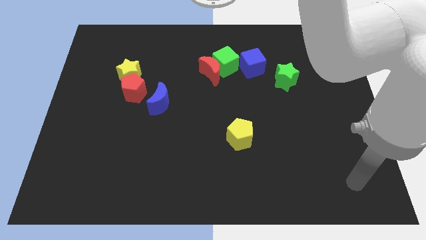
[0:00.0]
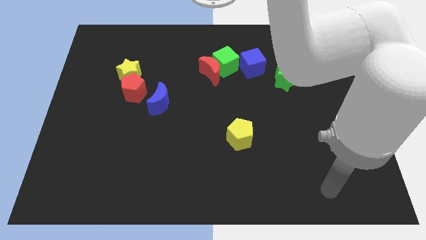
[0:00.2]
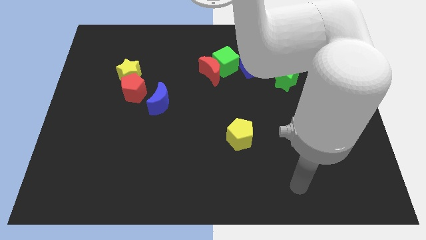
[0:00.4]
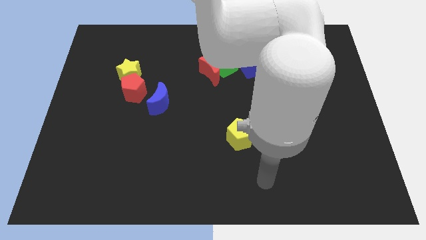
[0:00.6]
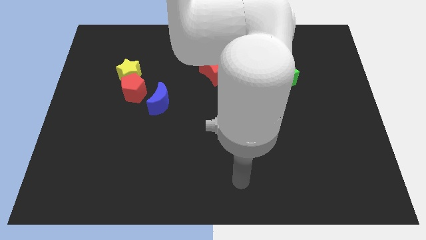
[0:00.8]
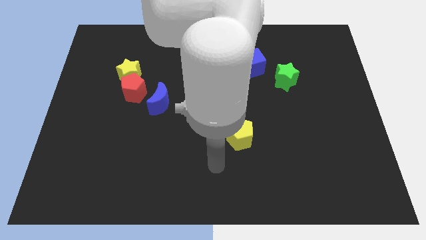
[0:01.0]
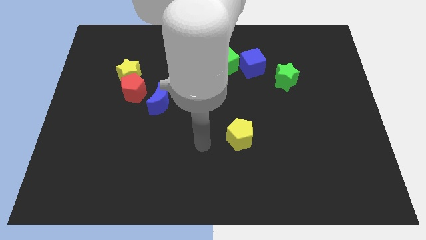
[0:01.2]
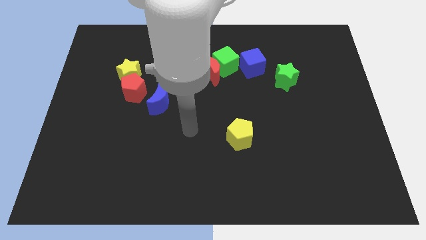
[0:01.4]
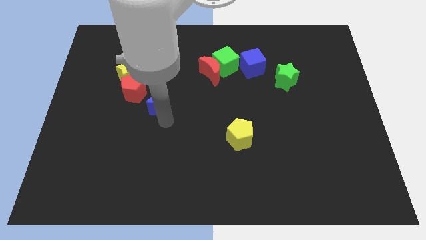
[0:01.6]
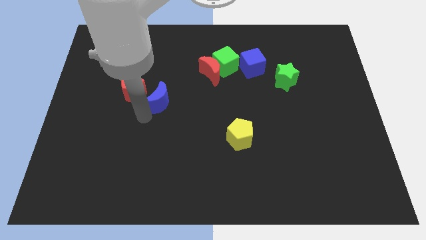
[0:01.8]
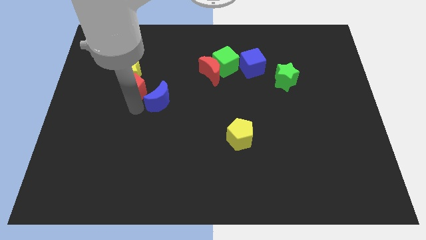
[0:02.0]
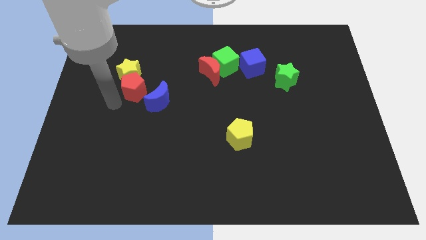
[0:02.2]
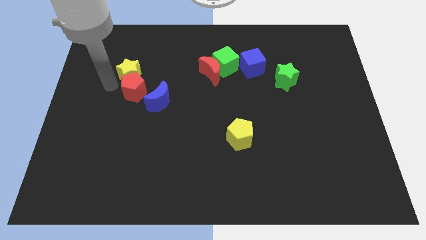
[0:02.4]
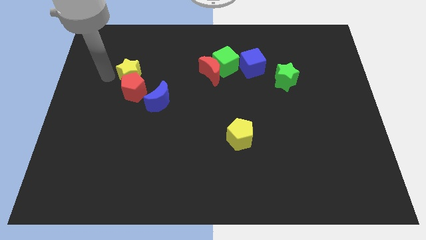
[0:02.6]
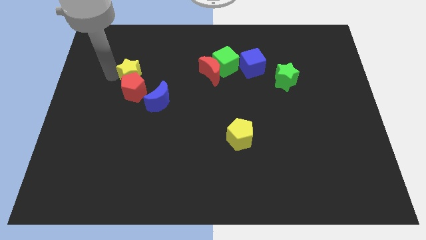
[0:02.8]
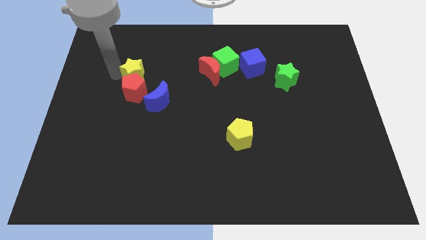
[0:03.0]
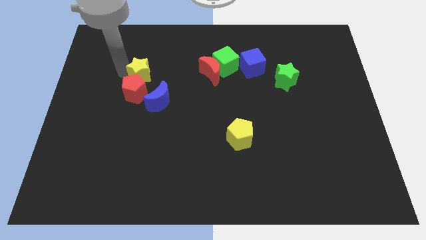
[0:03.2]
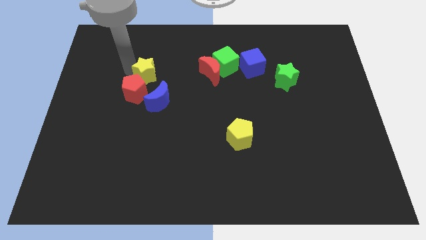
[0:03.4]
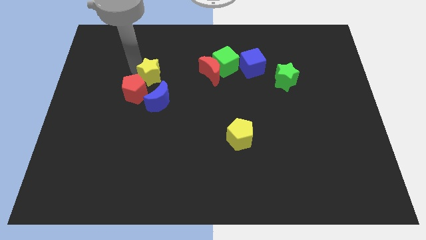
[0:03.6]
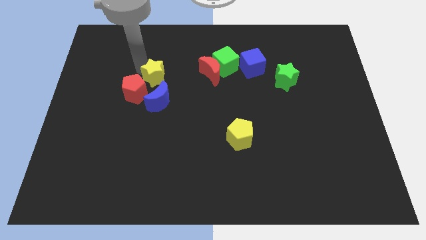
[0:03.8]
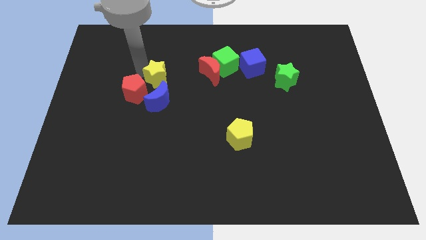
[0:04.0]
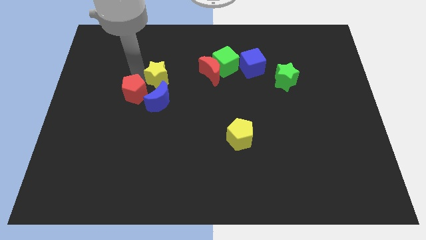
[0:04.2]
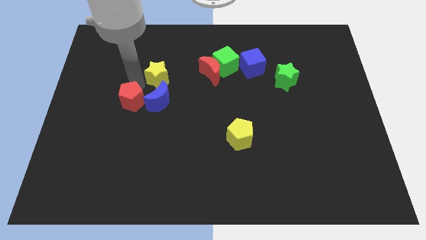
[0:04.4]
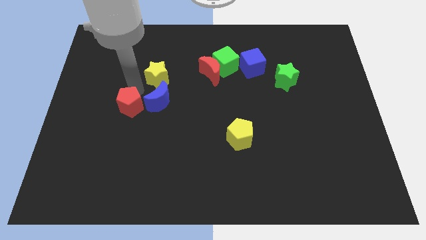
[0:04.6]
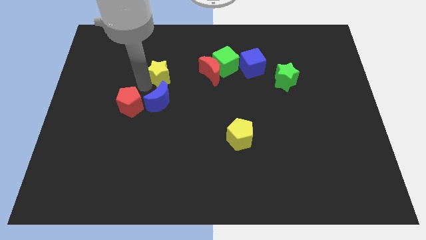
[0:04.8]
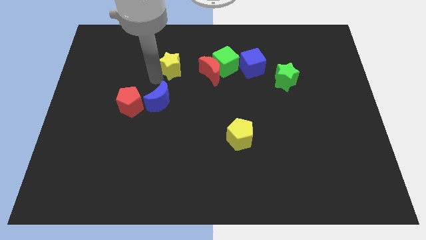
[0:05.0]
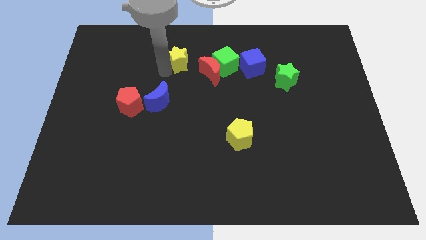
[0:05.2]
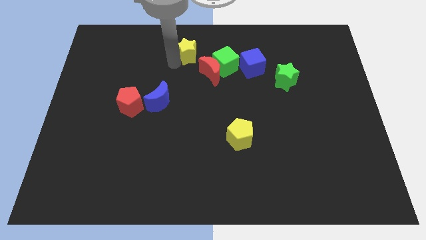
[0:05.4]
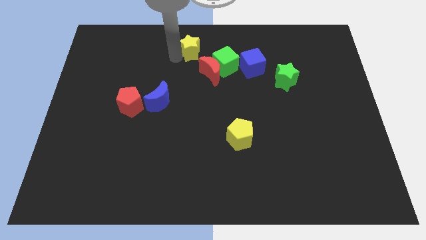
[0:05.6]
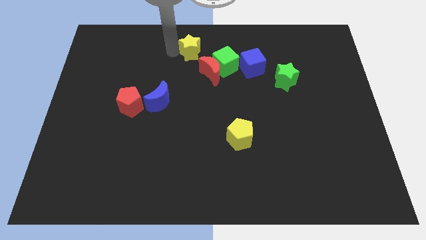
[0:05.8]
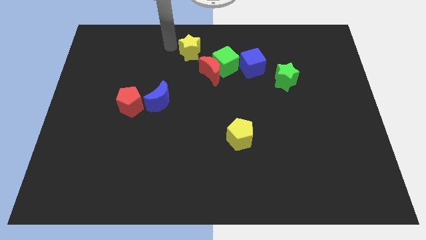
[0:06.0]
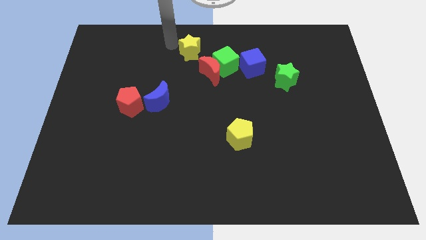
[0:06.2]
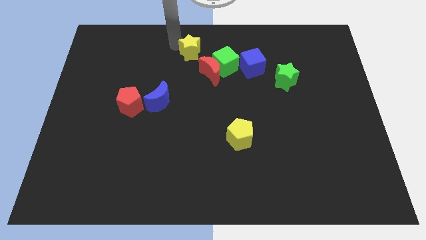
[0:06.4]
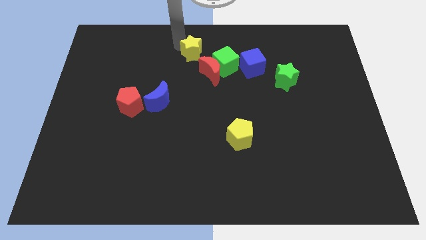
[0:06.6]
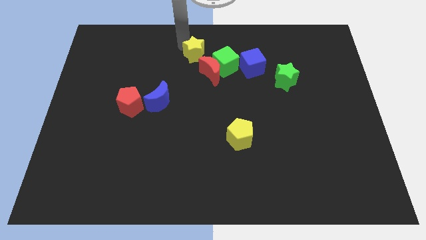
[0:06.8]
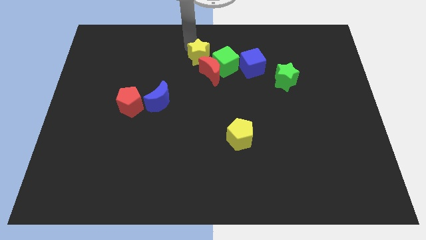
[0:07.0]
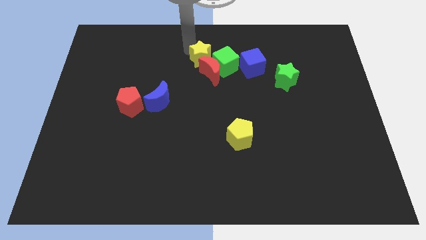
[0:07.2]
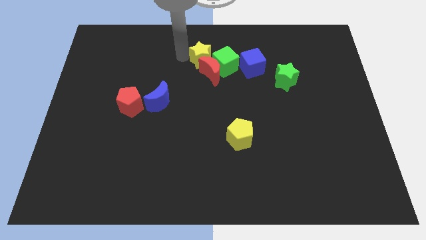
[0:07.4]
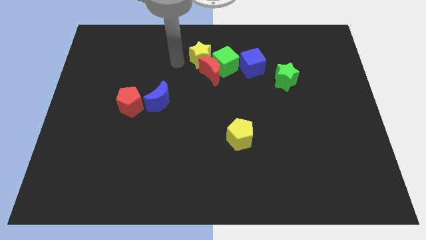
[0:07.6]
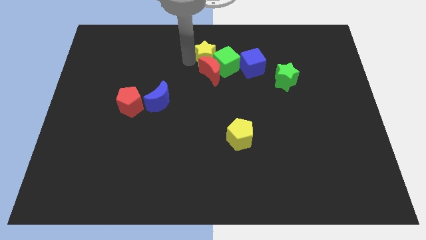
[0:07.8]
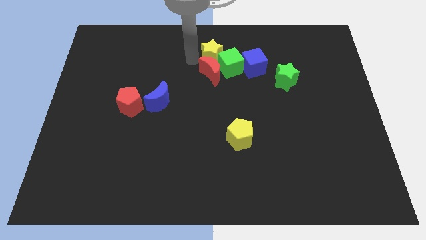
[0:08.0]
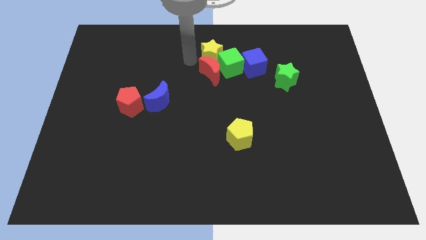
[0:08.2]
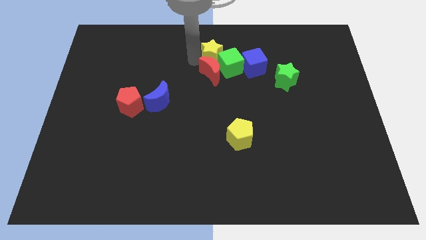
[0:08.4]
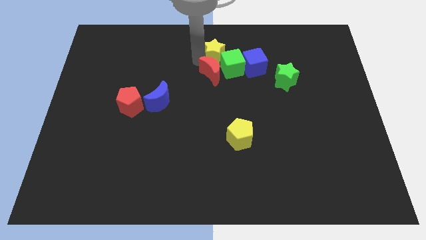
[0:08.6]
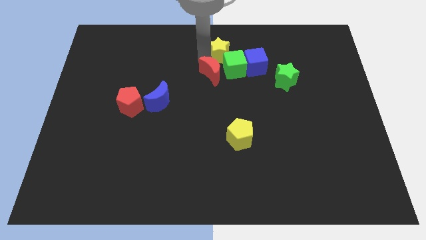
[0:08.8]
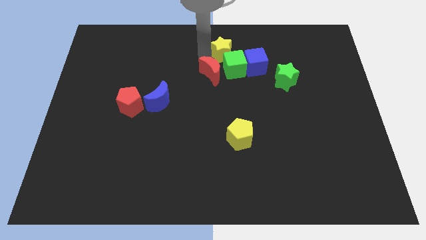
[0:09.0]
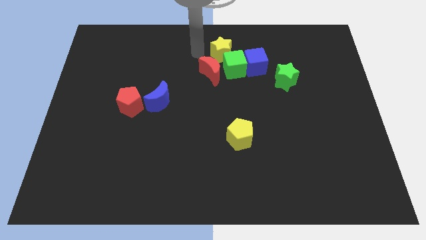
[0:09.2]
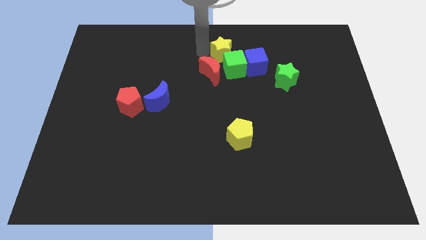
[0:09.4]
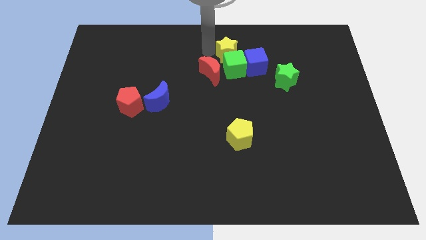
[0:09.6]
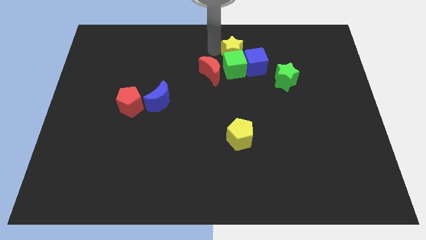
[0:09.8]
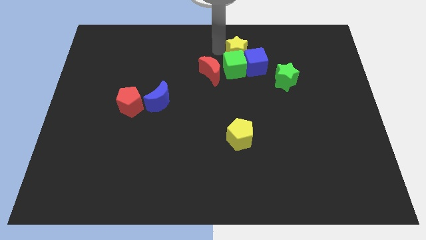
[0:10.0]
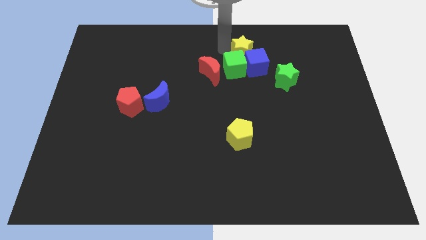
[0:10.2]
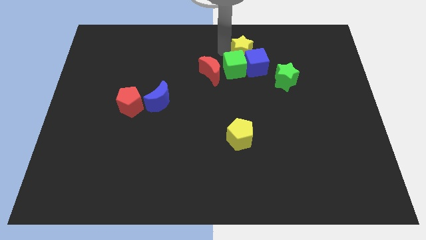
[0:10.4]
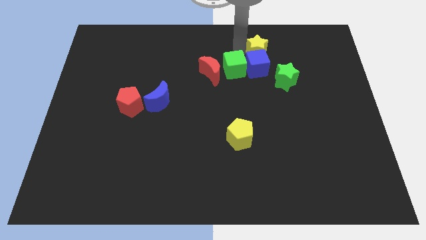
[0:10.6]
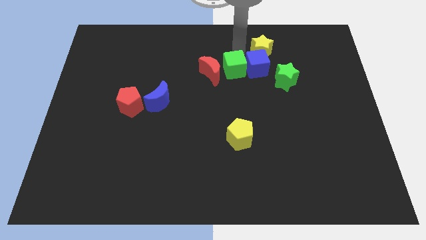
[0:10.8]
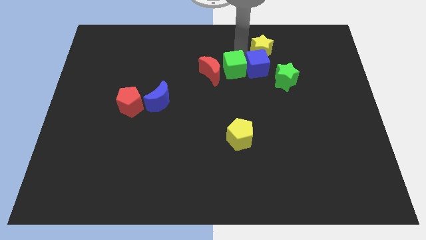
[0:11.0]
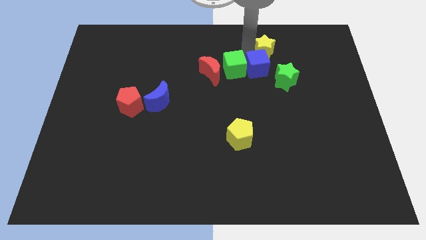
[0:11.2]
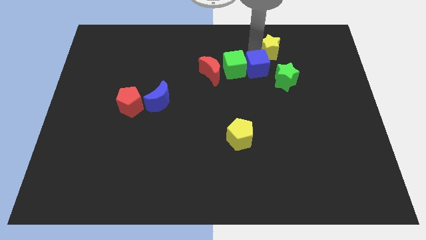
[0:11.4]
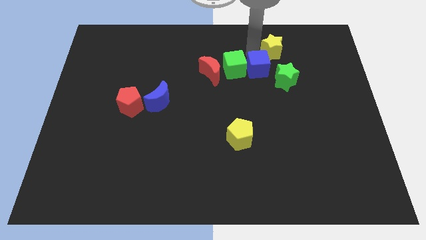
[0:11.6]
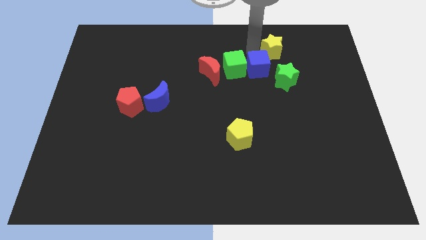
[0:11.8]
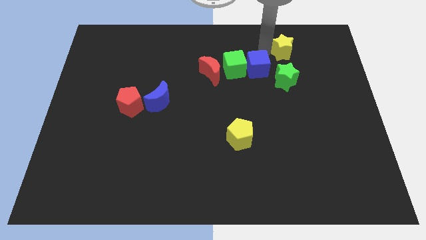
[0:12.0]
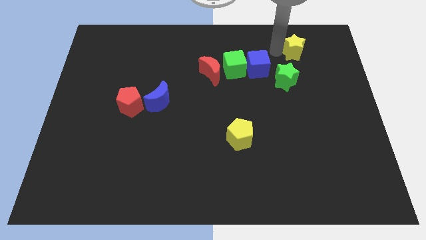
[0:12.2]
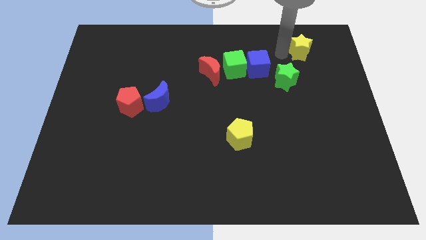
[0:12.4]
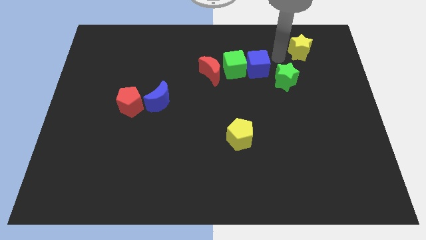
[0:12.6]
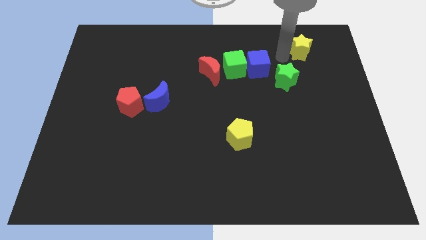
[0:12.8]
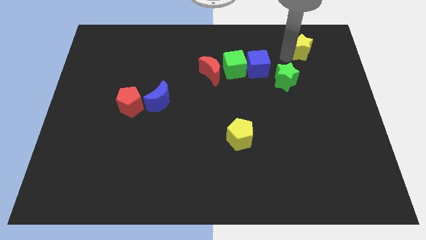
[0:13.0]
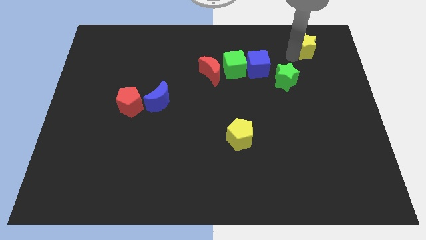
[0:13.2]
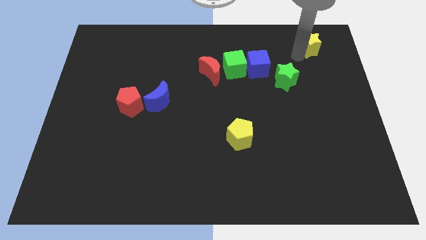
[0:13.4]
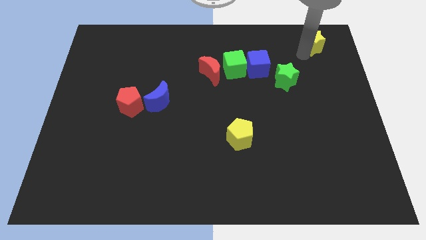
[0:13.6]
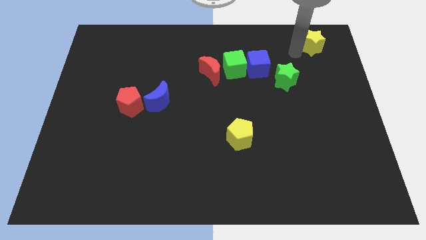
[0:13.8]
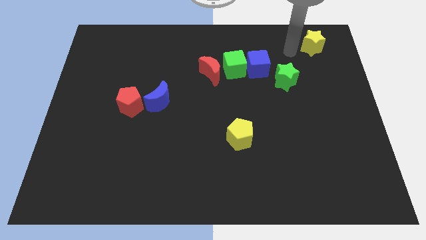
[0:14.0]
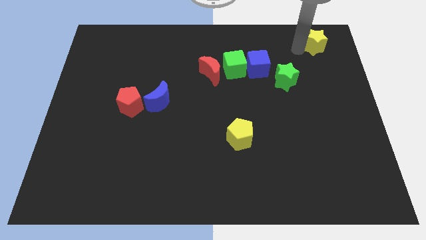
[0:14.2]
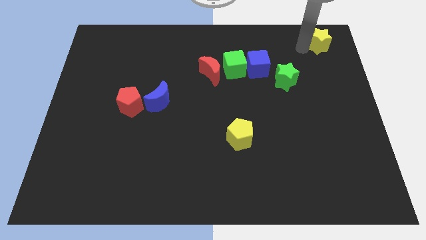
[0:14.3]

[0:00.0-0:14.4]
put the yellow star to the upper right corner

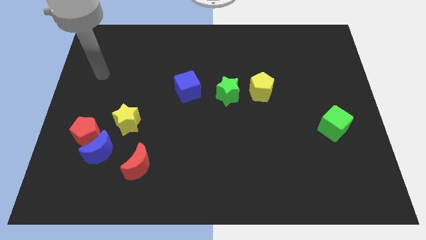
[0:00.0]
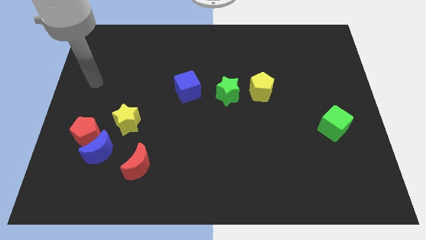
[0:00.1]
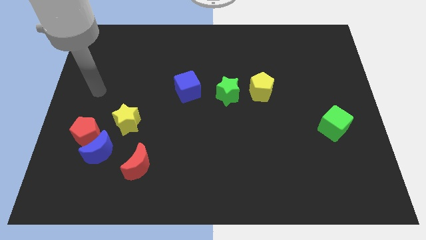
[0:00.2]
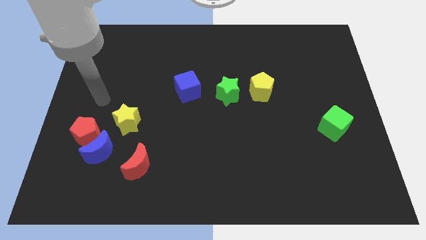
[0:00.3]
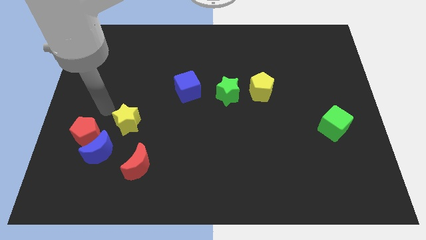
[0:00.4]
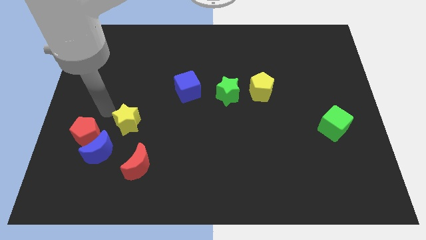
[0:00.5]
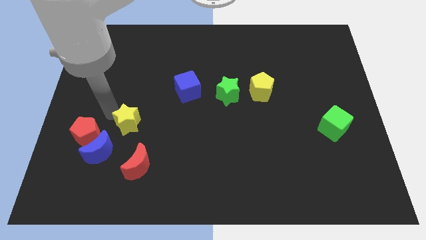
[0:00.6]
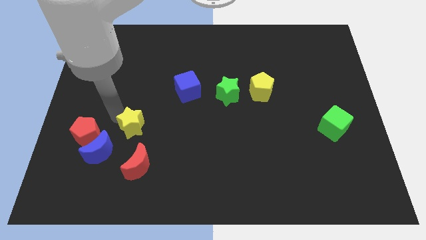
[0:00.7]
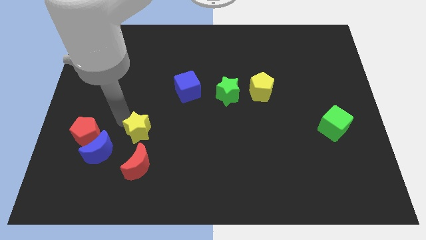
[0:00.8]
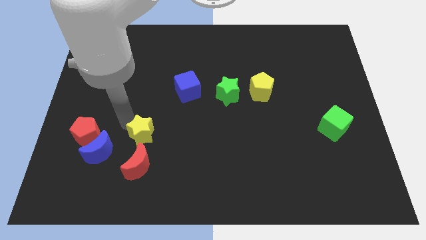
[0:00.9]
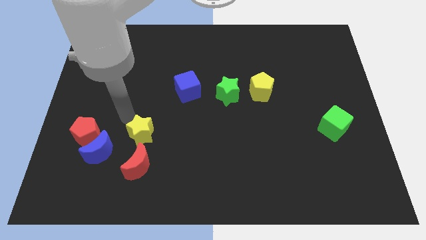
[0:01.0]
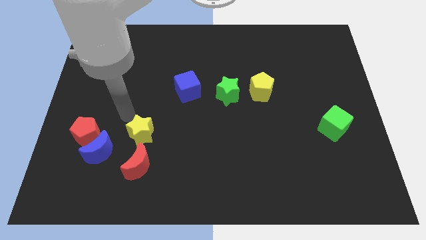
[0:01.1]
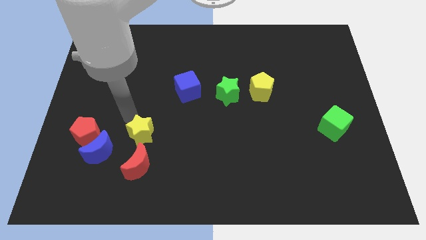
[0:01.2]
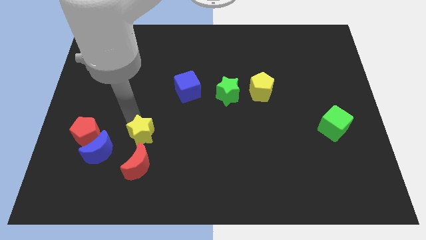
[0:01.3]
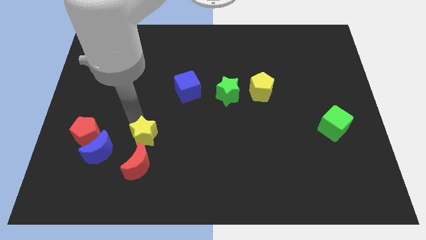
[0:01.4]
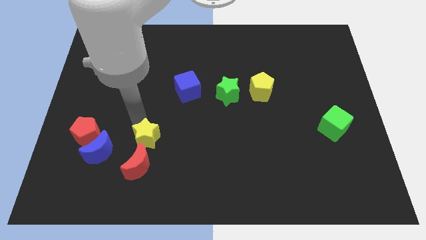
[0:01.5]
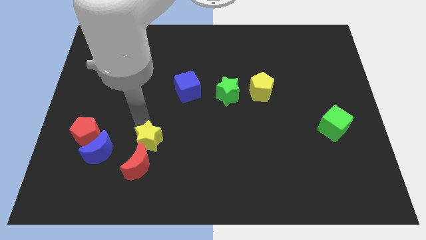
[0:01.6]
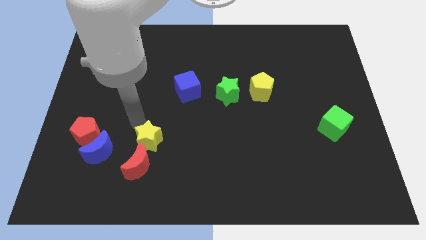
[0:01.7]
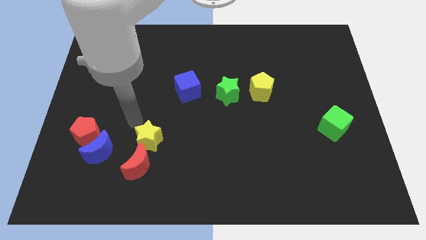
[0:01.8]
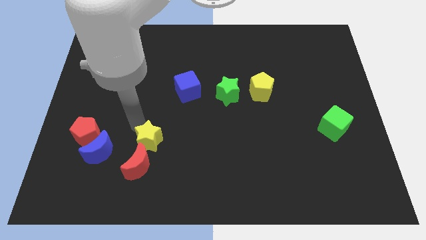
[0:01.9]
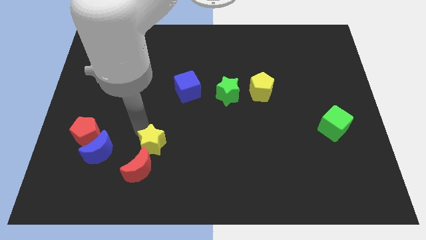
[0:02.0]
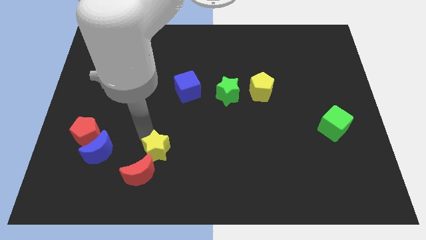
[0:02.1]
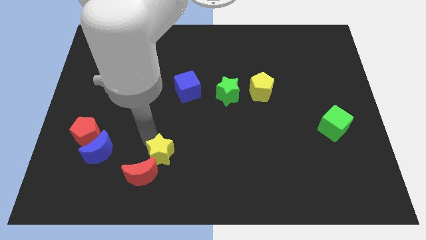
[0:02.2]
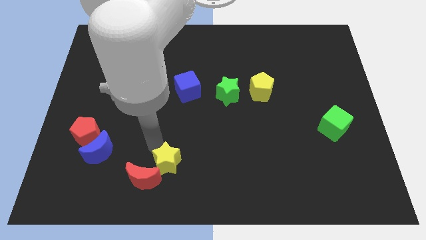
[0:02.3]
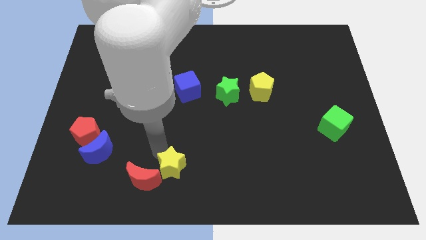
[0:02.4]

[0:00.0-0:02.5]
put the yellow star to the bottom
